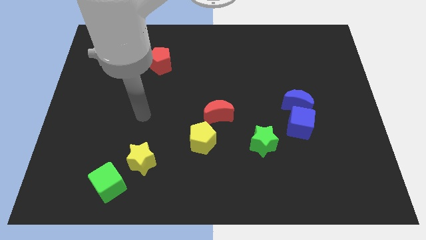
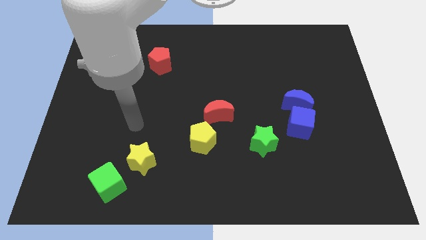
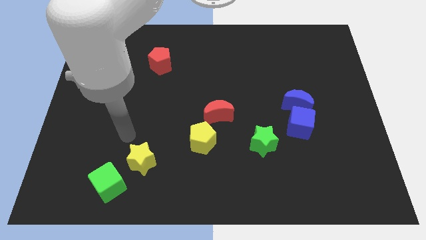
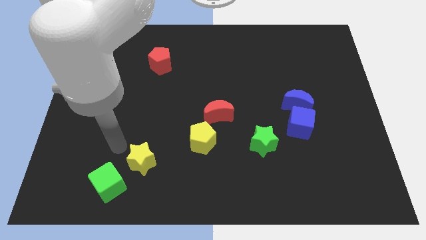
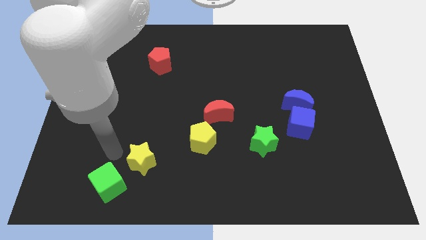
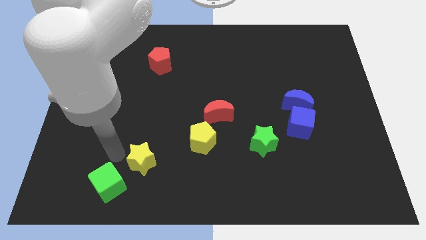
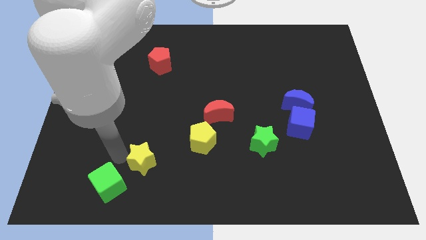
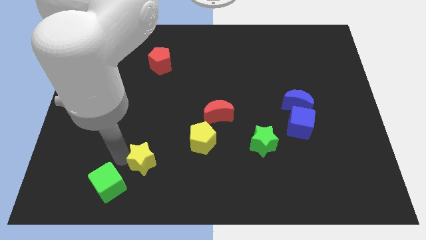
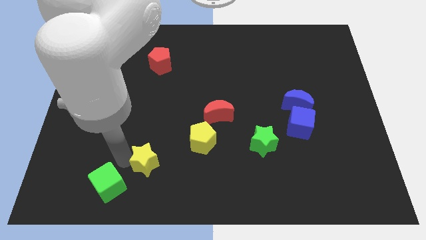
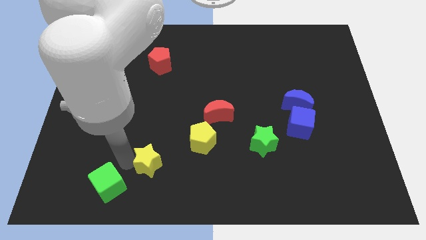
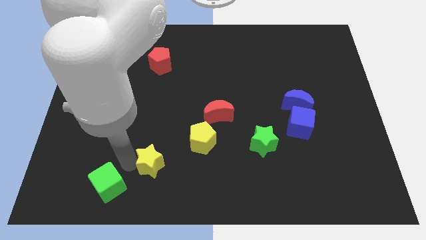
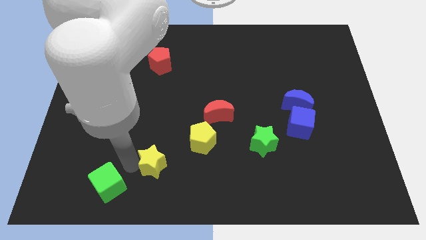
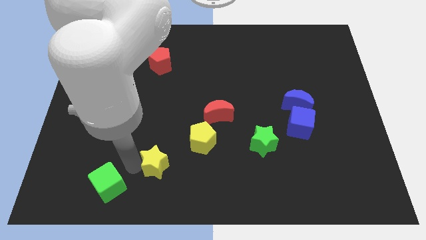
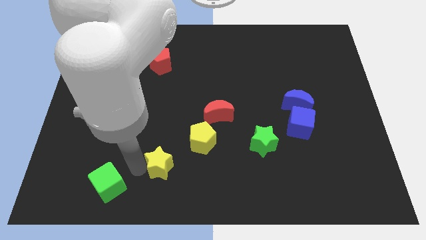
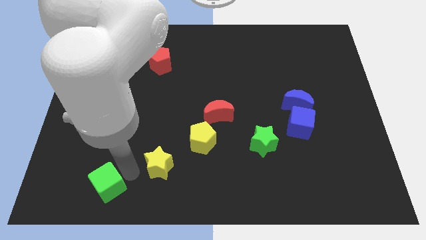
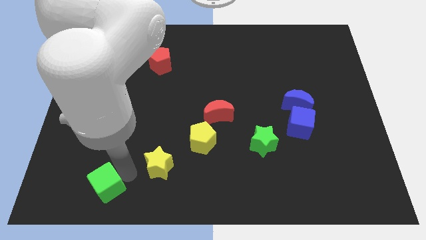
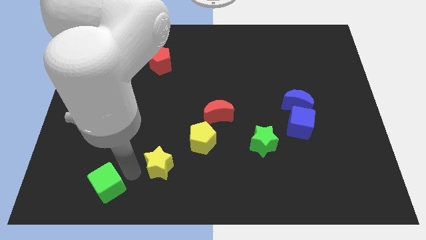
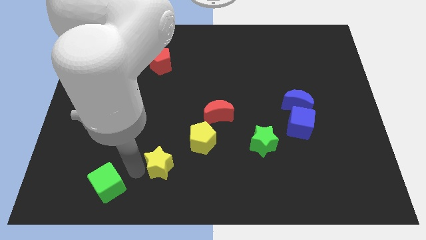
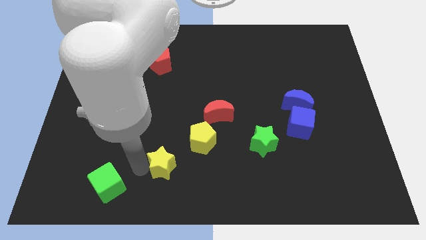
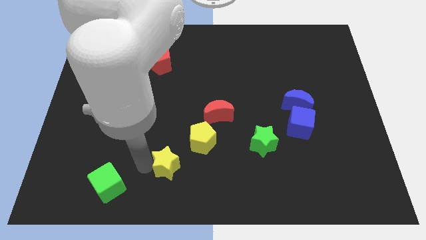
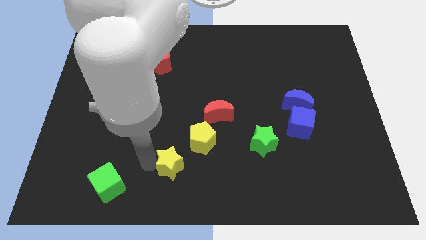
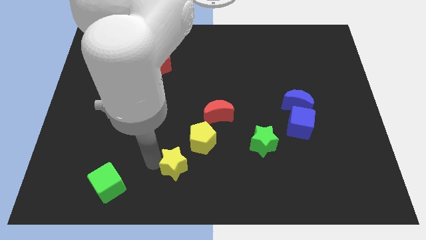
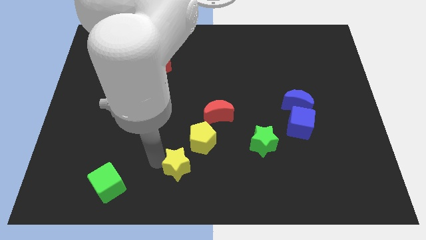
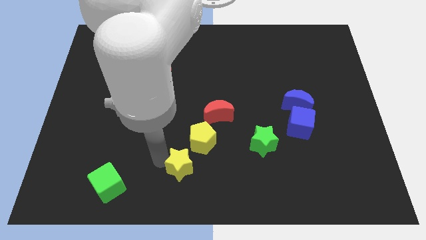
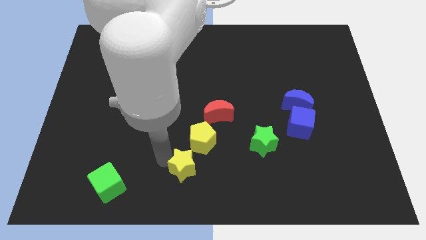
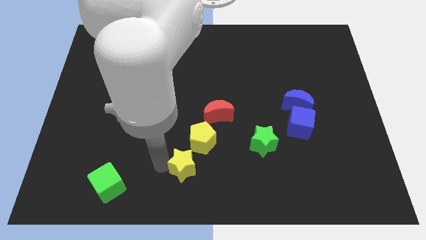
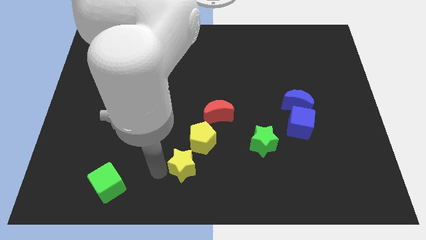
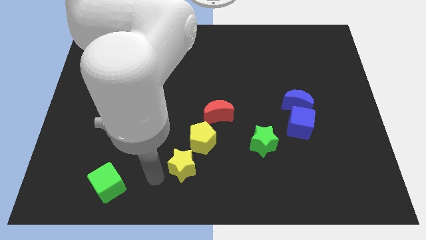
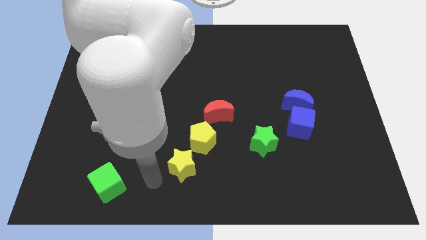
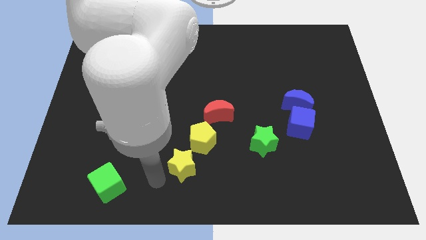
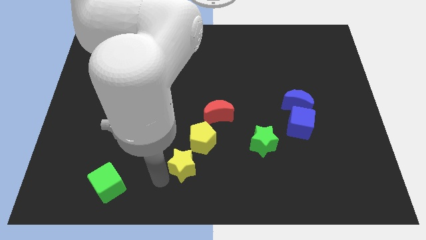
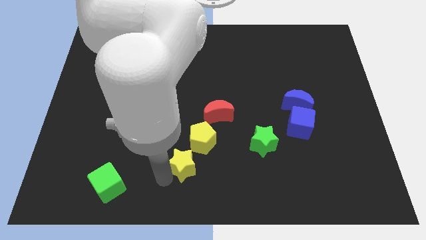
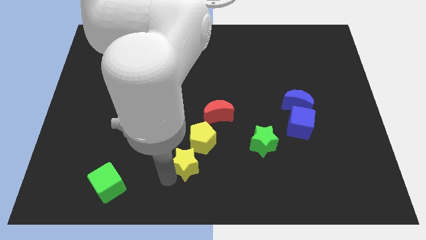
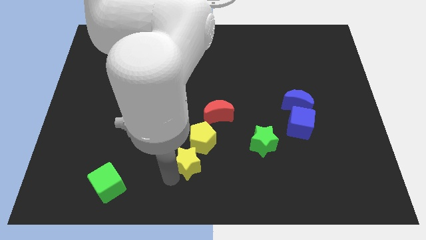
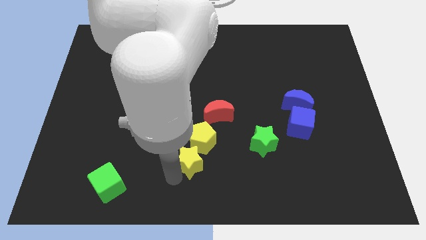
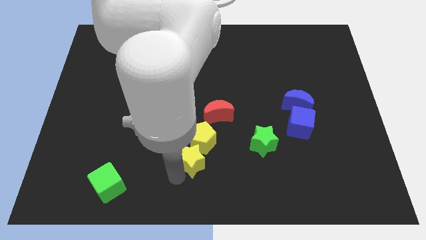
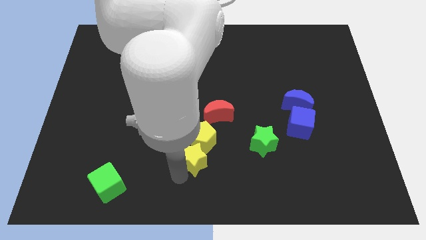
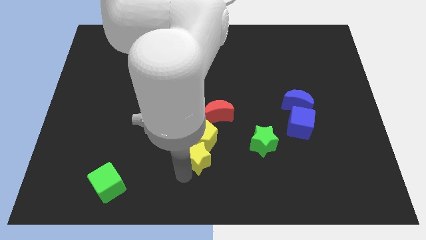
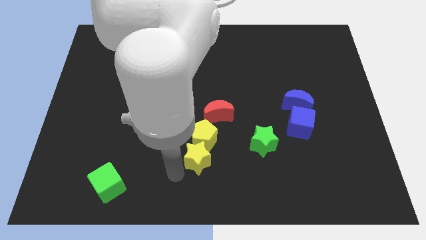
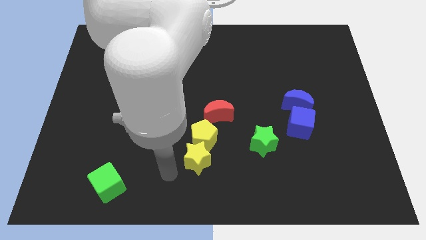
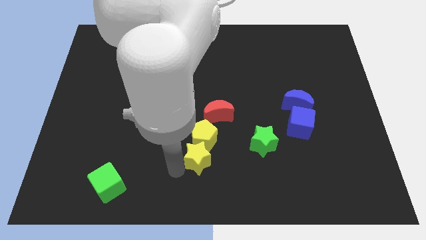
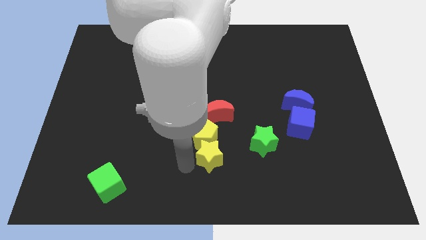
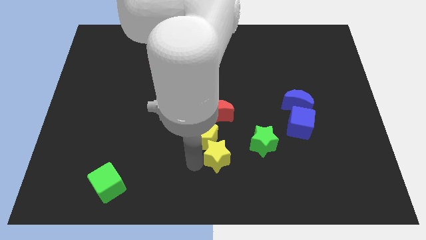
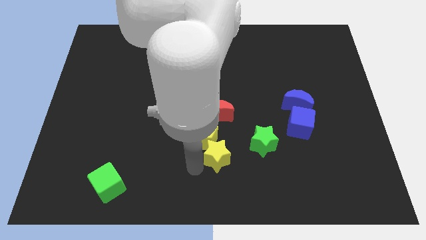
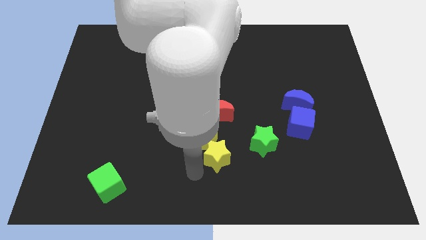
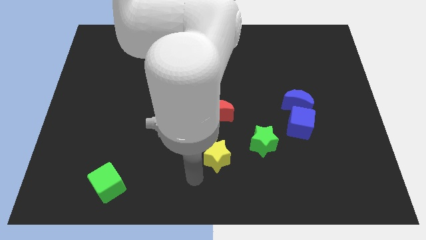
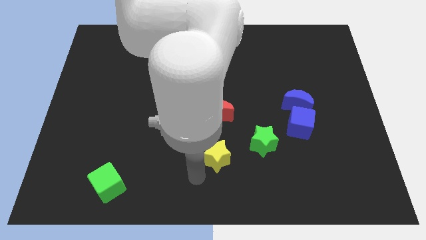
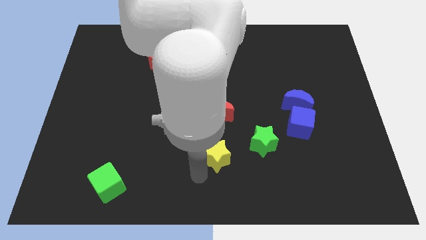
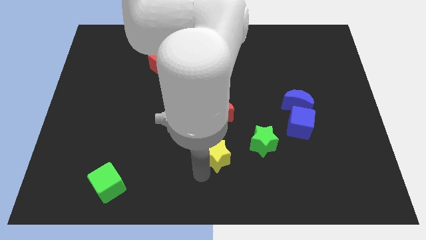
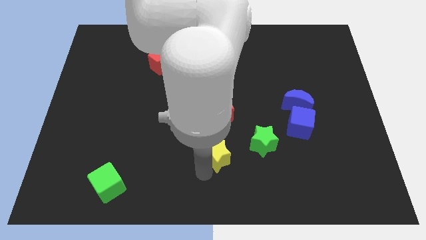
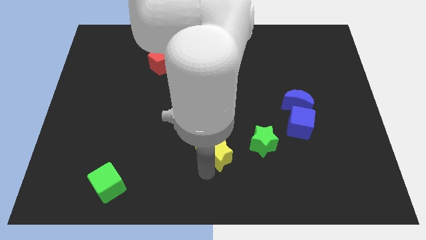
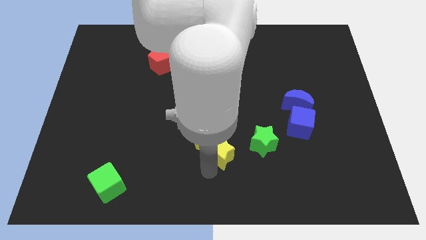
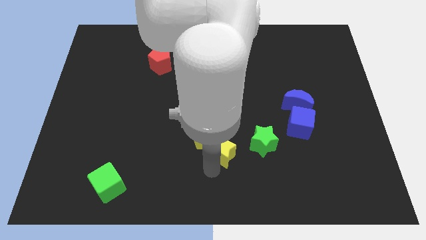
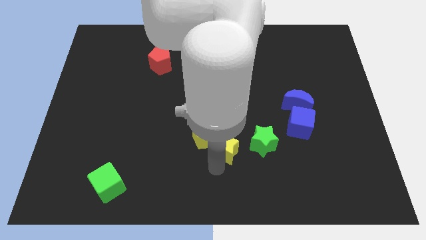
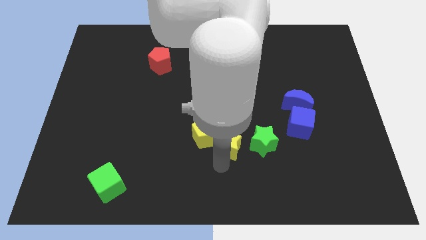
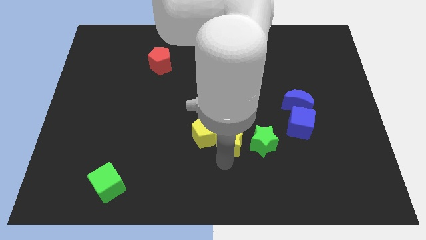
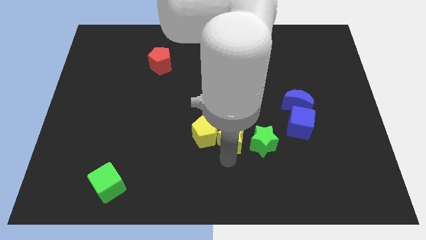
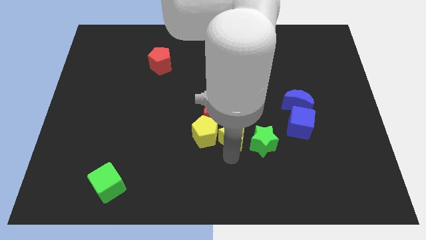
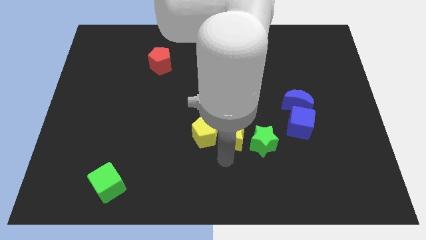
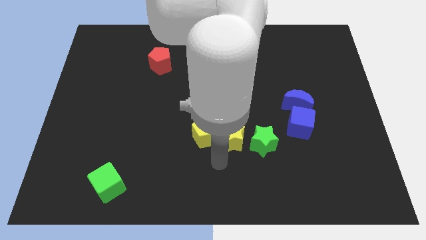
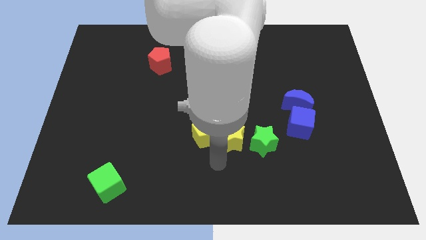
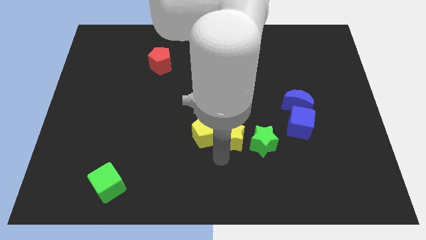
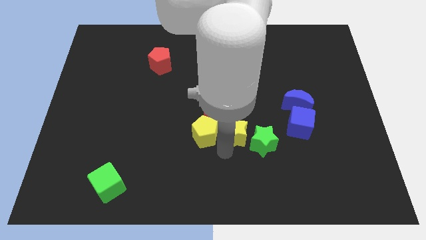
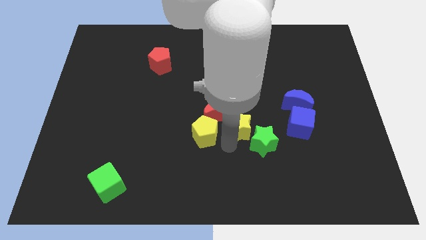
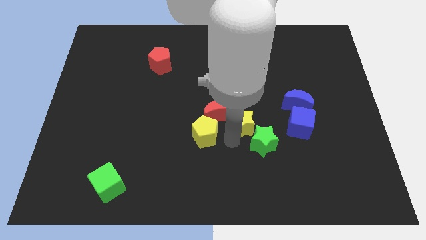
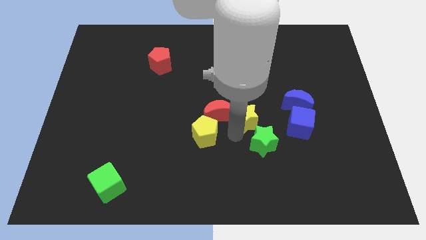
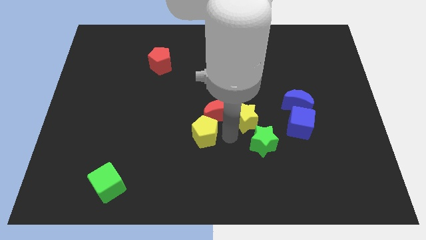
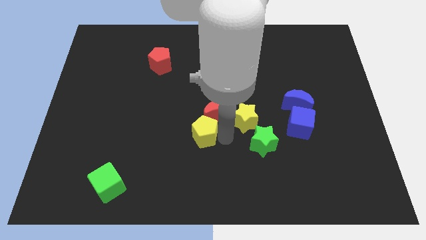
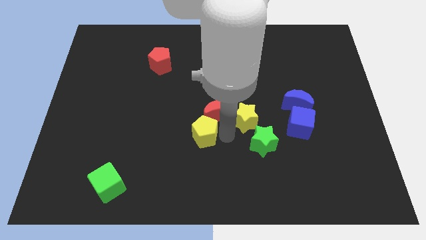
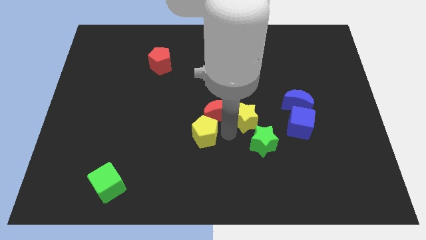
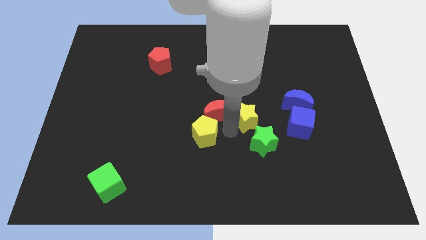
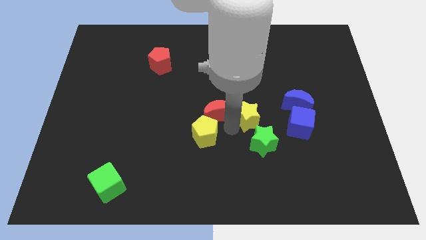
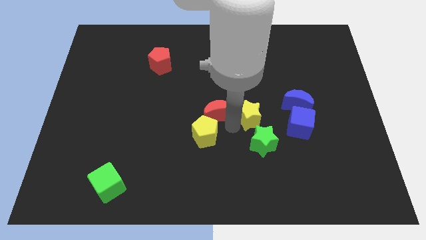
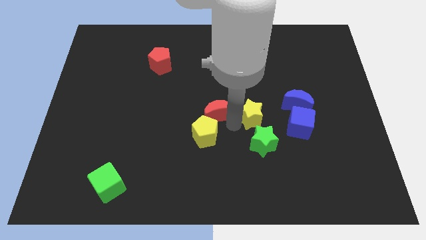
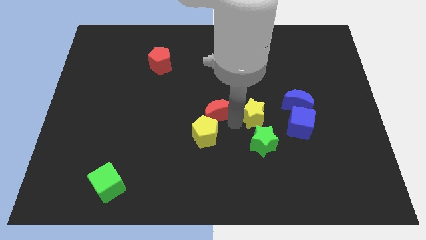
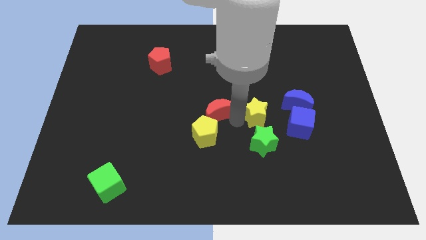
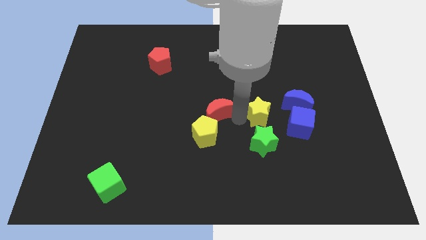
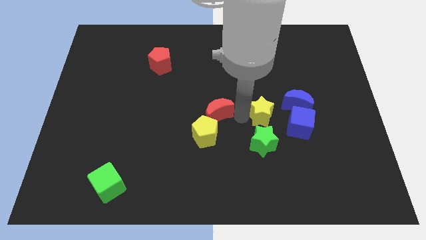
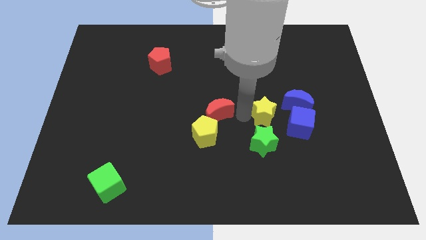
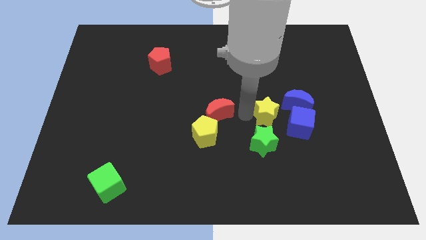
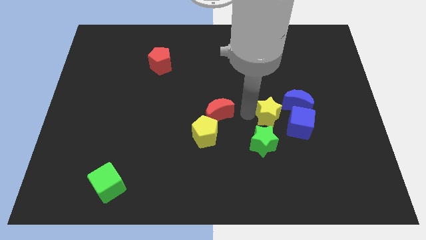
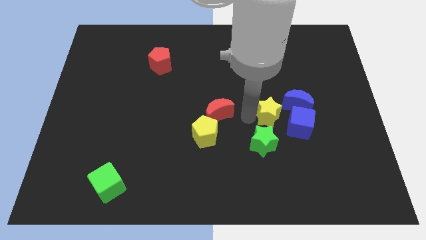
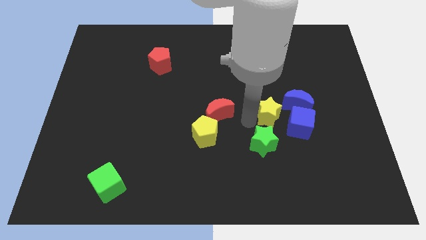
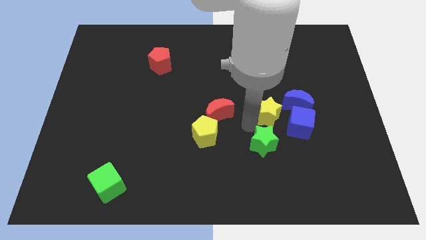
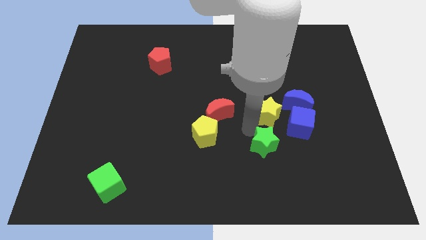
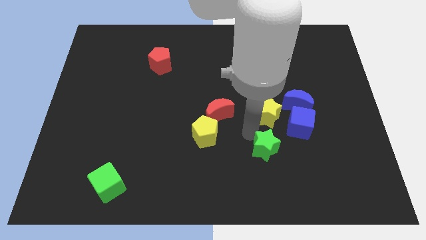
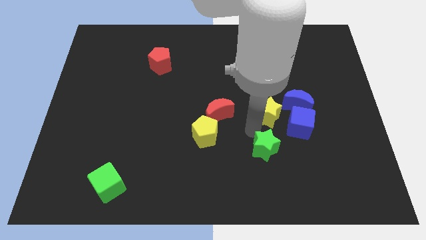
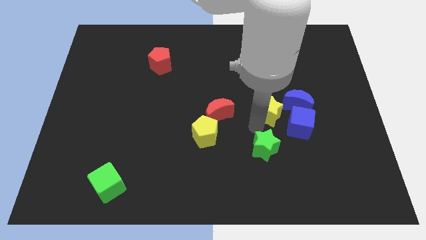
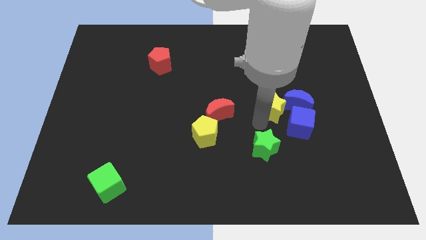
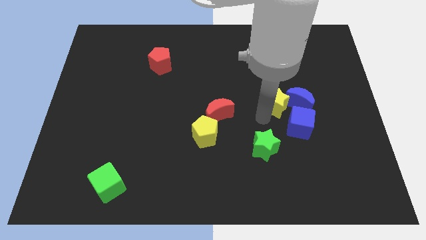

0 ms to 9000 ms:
push the yellow star towards the blue moon
